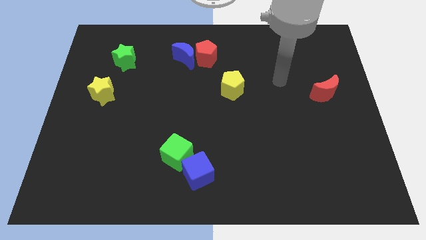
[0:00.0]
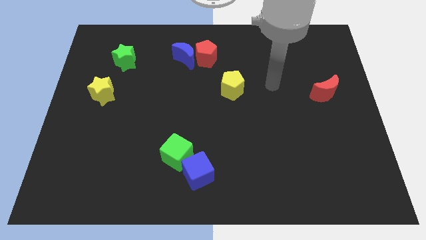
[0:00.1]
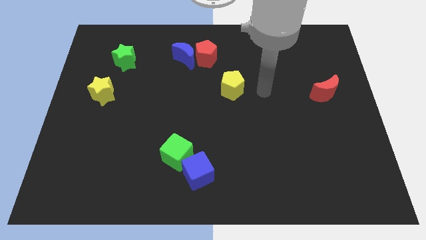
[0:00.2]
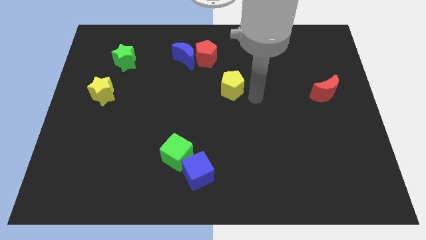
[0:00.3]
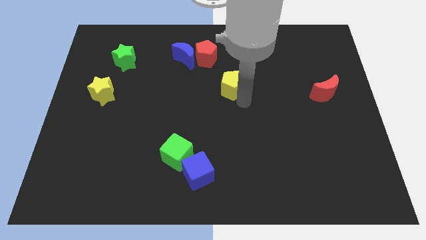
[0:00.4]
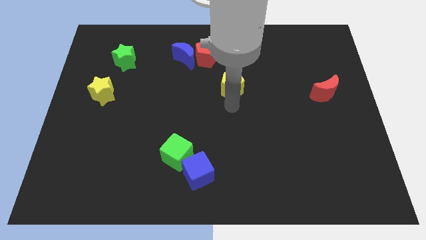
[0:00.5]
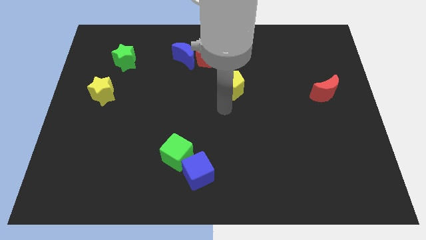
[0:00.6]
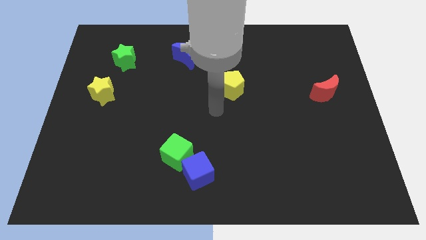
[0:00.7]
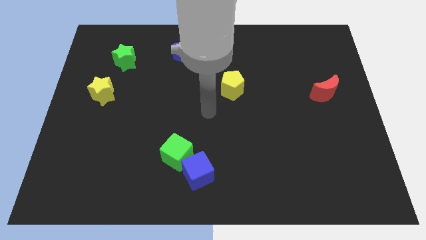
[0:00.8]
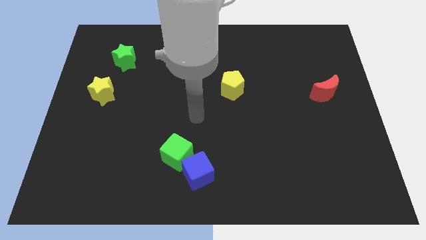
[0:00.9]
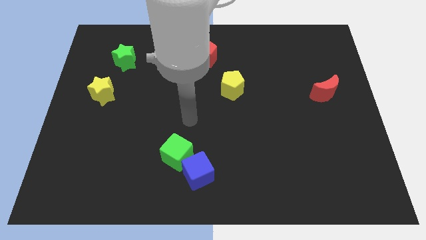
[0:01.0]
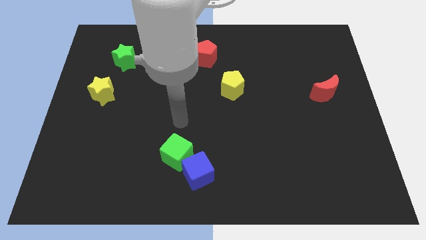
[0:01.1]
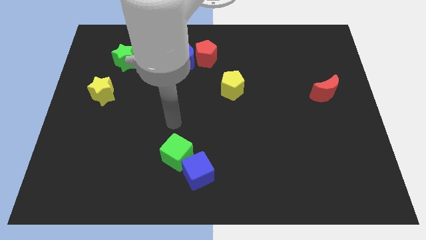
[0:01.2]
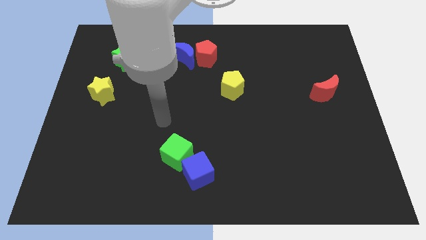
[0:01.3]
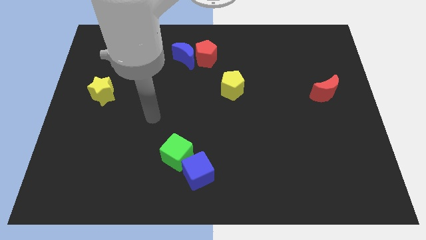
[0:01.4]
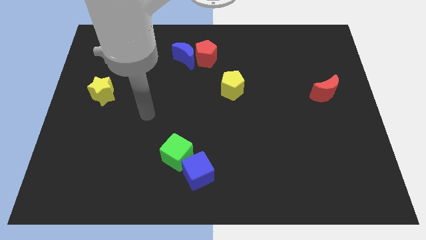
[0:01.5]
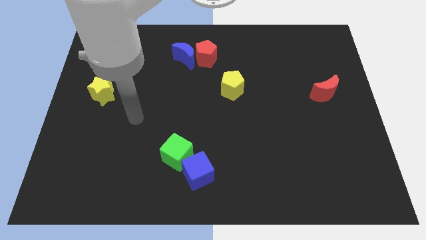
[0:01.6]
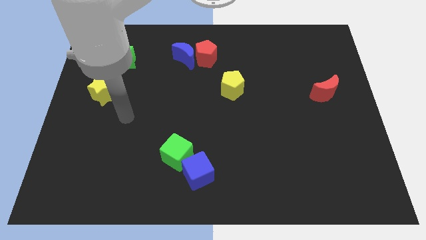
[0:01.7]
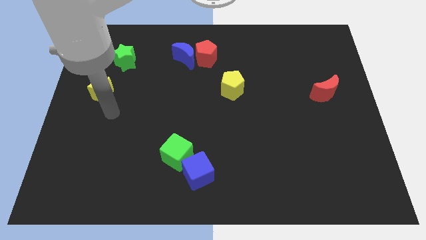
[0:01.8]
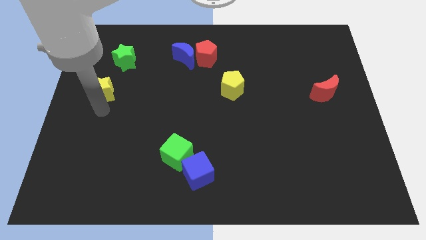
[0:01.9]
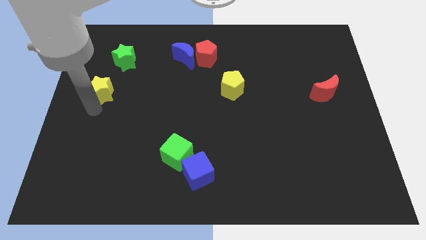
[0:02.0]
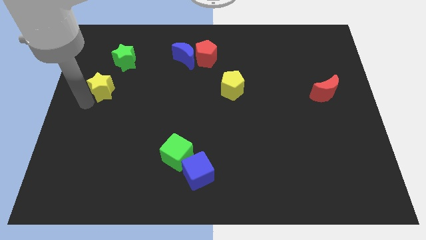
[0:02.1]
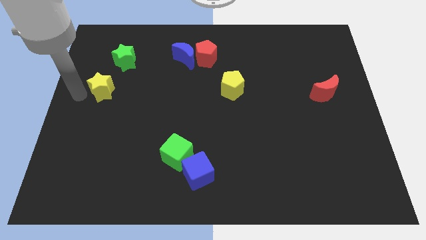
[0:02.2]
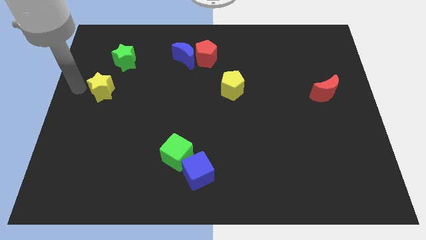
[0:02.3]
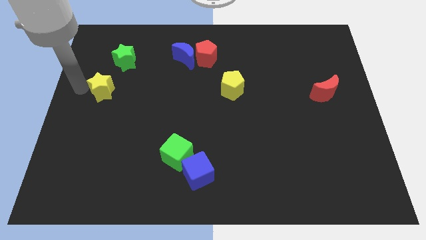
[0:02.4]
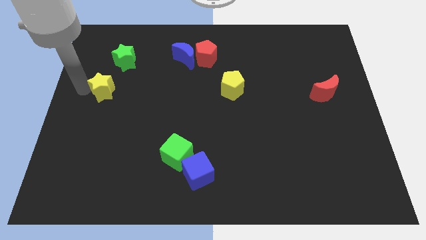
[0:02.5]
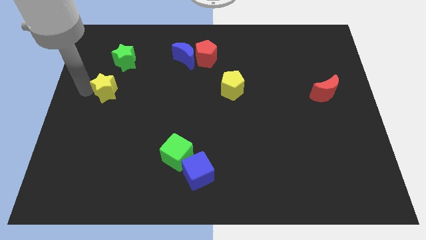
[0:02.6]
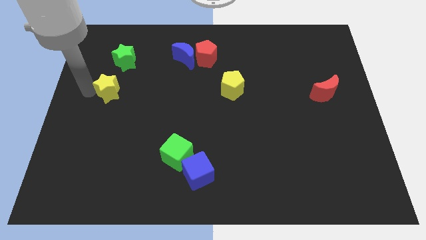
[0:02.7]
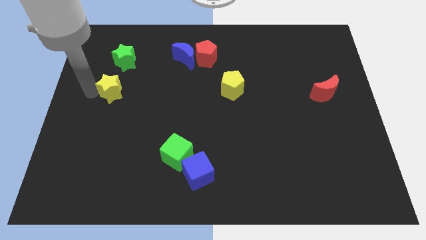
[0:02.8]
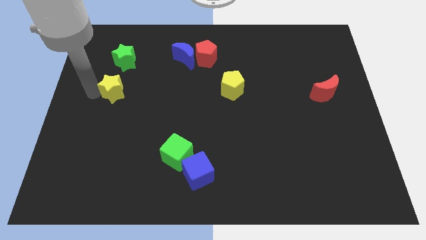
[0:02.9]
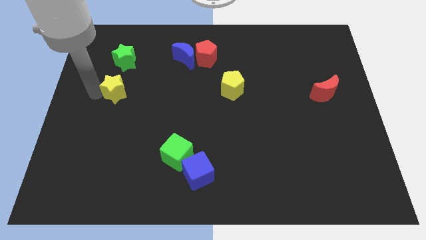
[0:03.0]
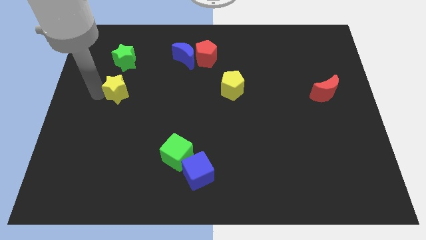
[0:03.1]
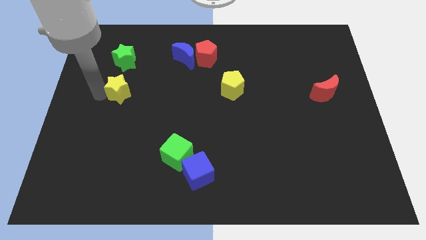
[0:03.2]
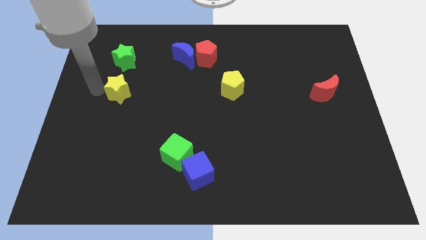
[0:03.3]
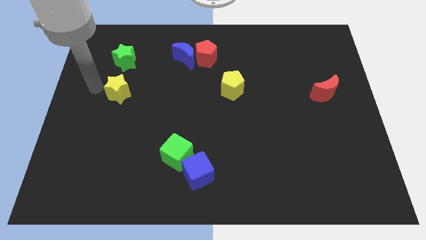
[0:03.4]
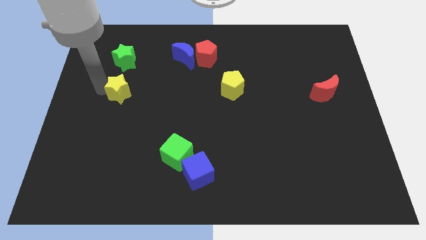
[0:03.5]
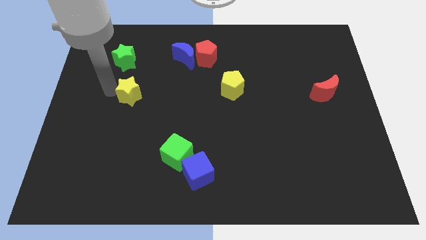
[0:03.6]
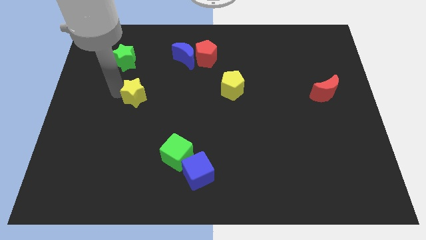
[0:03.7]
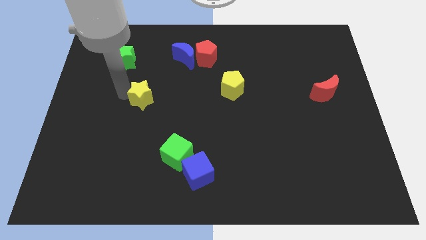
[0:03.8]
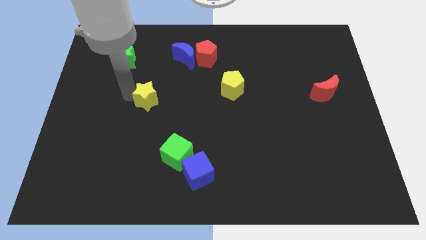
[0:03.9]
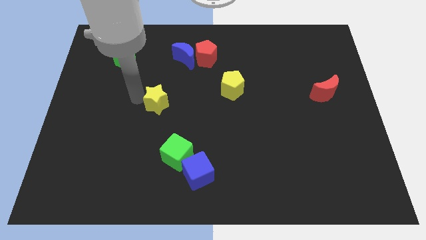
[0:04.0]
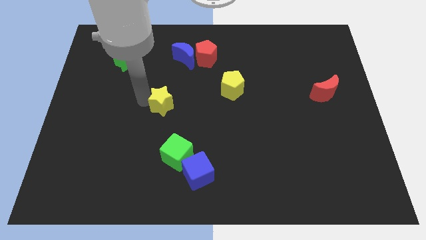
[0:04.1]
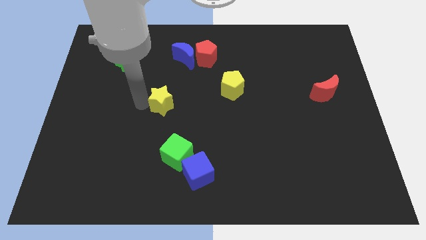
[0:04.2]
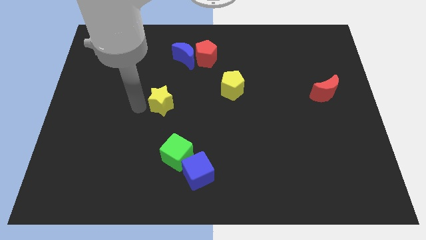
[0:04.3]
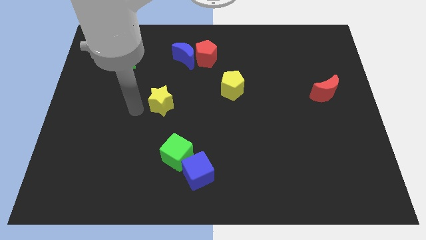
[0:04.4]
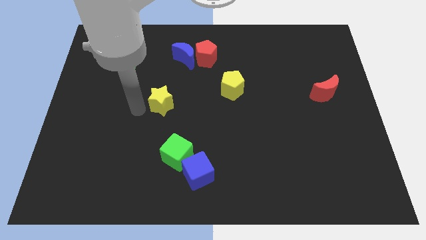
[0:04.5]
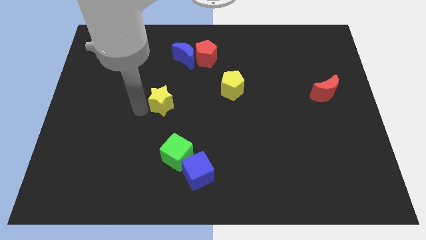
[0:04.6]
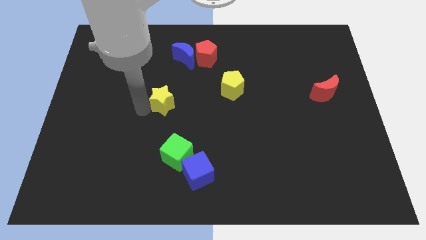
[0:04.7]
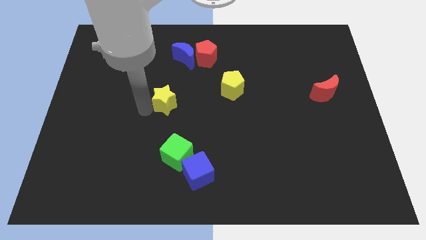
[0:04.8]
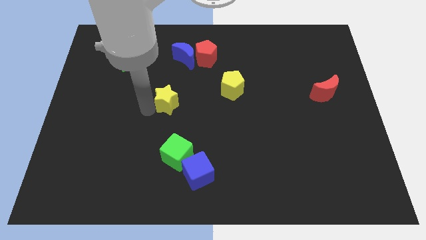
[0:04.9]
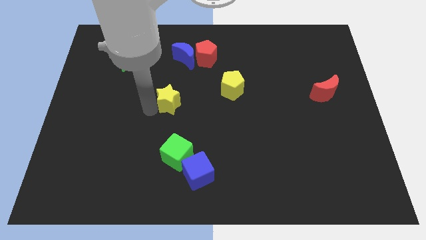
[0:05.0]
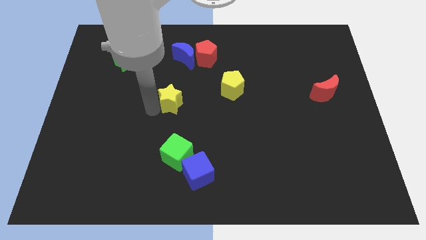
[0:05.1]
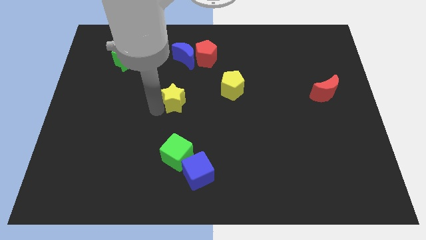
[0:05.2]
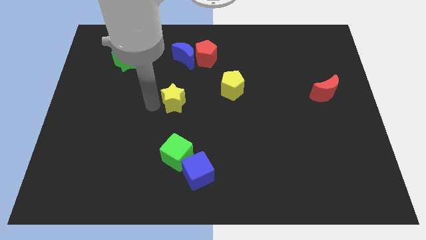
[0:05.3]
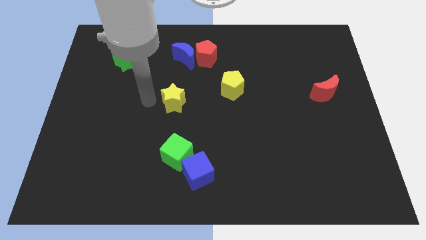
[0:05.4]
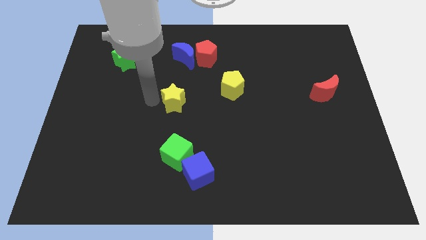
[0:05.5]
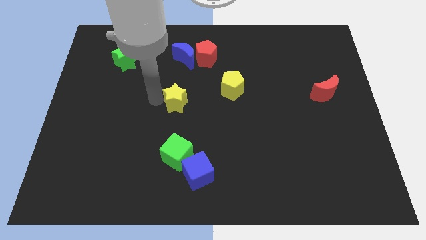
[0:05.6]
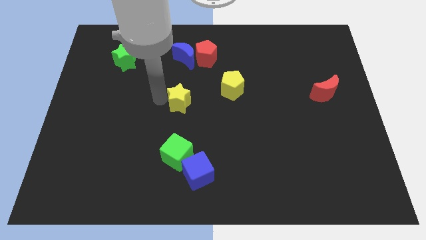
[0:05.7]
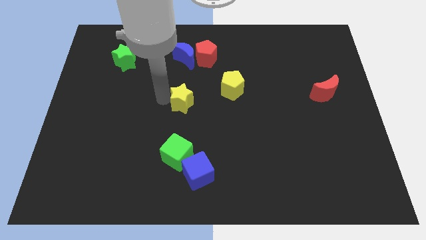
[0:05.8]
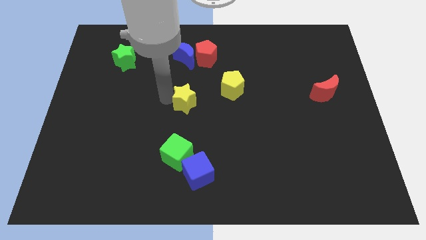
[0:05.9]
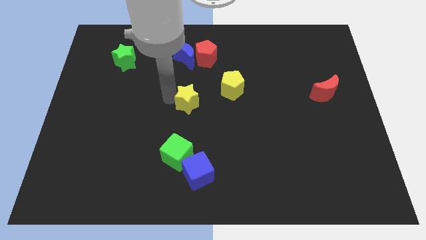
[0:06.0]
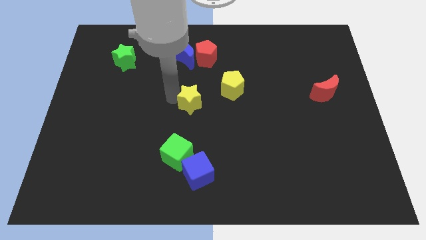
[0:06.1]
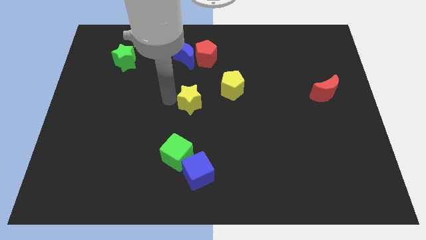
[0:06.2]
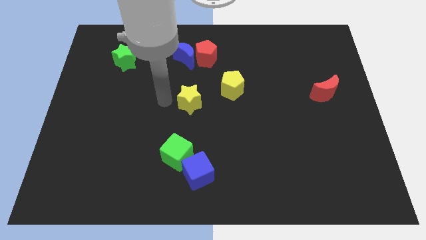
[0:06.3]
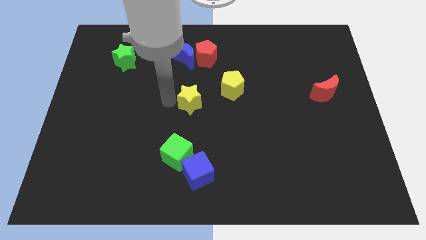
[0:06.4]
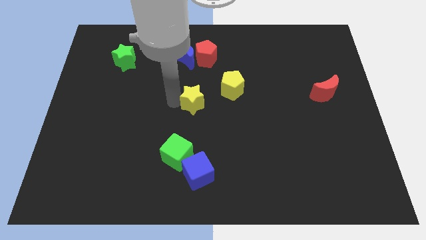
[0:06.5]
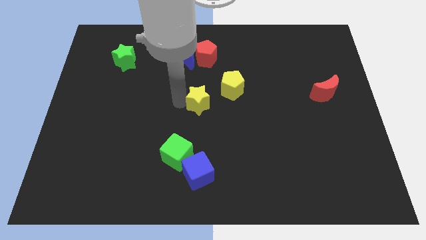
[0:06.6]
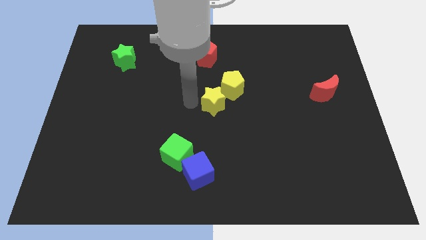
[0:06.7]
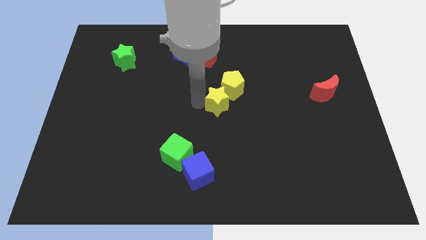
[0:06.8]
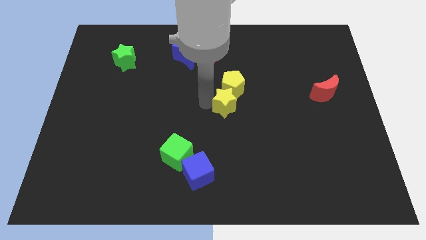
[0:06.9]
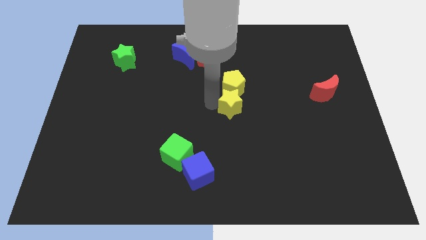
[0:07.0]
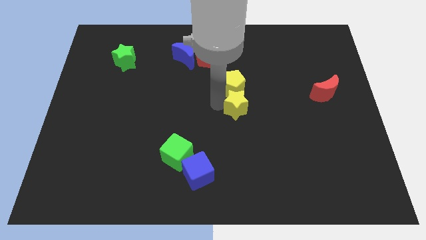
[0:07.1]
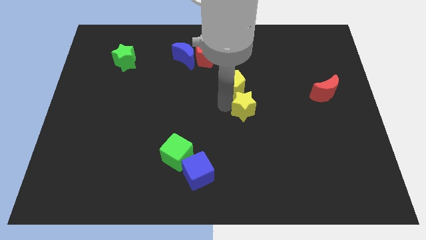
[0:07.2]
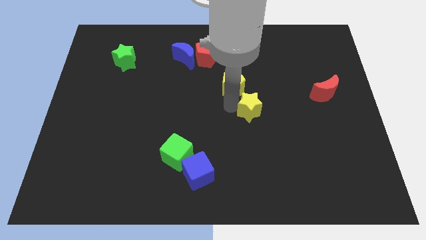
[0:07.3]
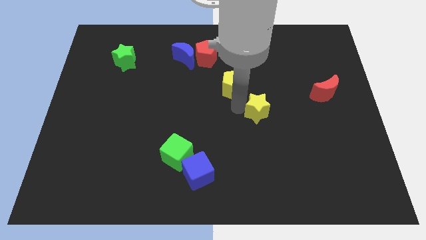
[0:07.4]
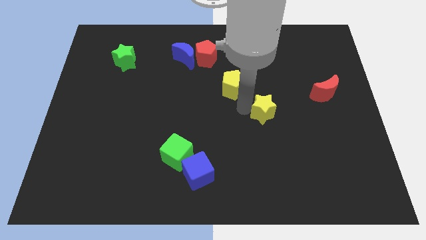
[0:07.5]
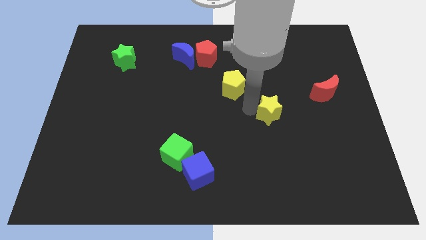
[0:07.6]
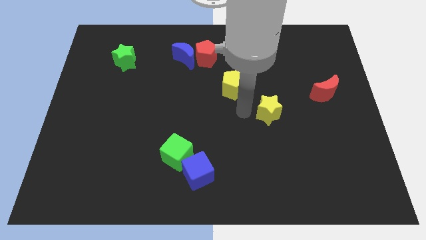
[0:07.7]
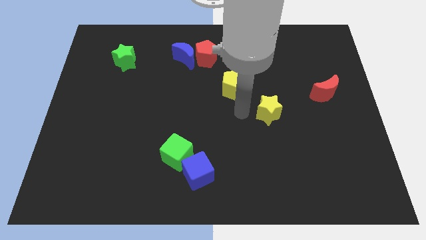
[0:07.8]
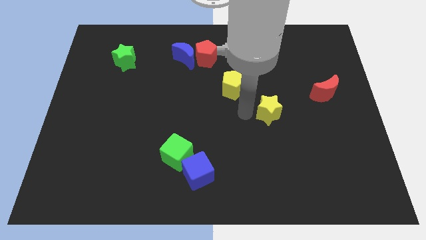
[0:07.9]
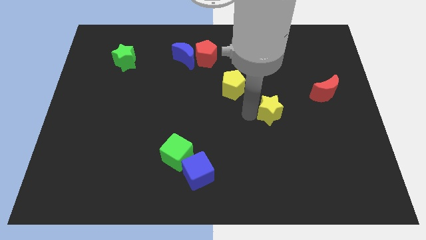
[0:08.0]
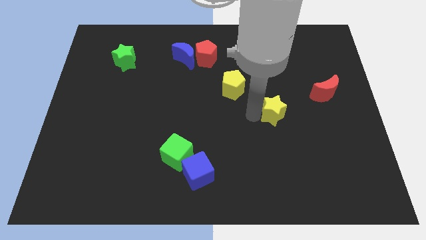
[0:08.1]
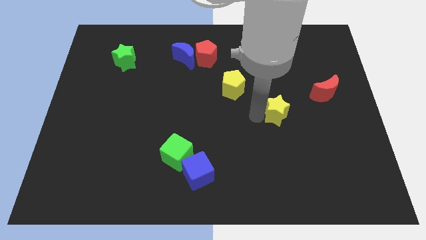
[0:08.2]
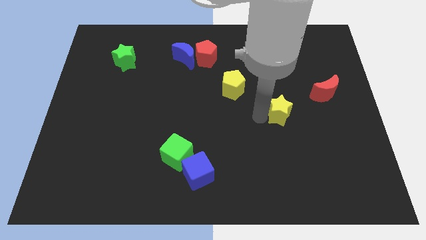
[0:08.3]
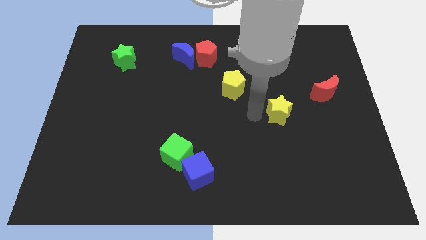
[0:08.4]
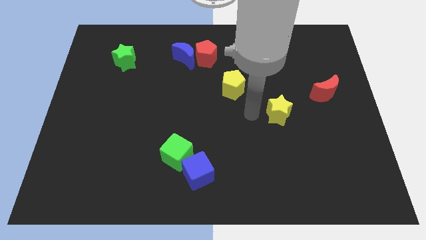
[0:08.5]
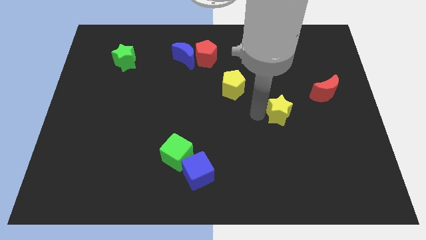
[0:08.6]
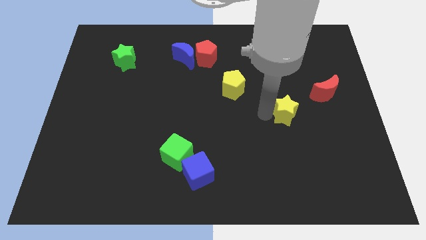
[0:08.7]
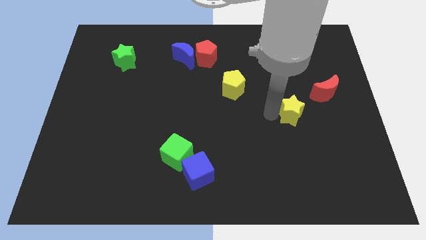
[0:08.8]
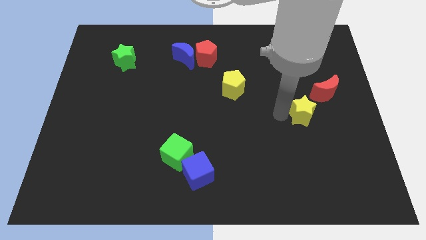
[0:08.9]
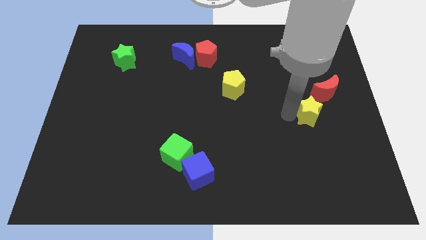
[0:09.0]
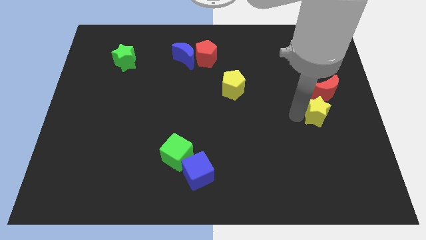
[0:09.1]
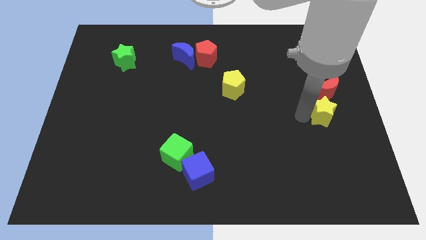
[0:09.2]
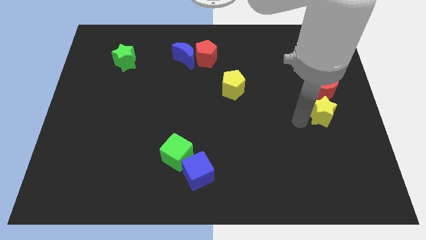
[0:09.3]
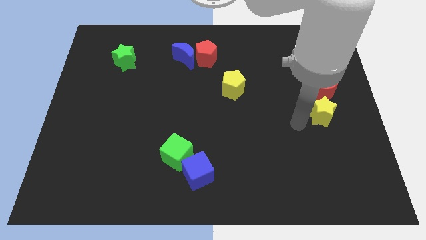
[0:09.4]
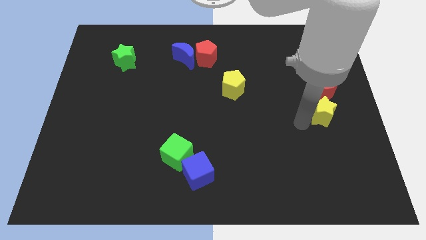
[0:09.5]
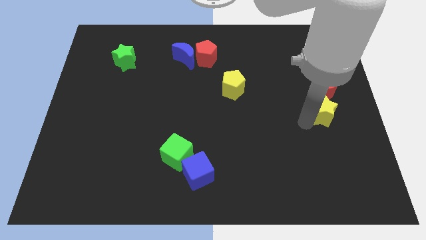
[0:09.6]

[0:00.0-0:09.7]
move the yellow star to the center right
